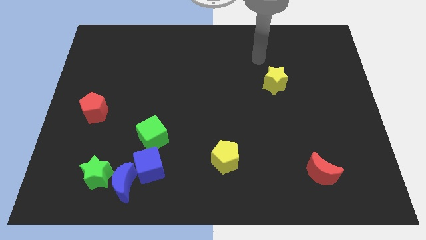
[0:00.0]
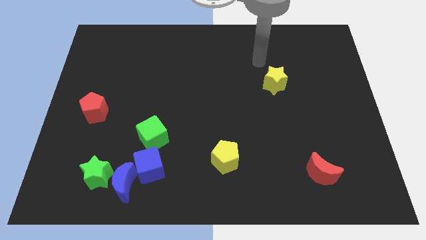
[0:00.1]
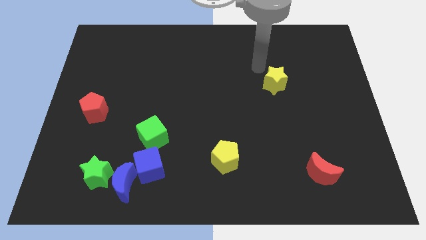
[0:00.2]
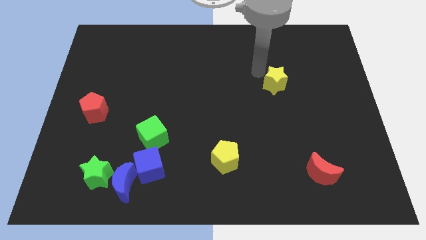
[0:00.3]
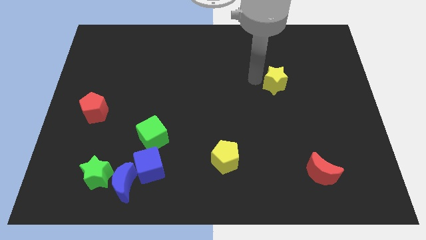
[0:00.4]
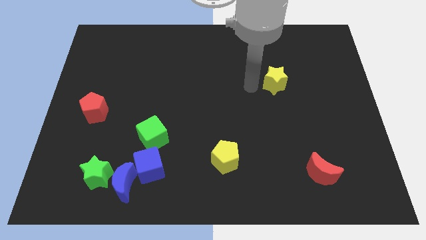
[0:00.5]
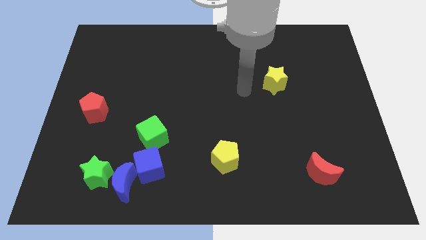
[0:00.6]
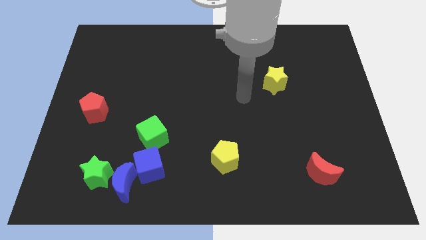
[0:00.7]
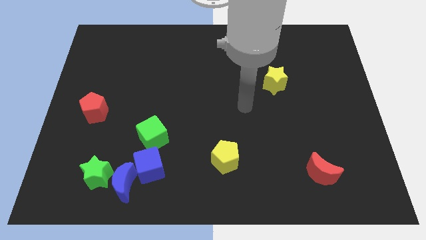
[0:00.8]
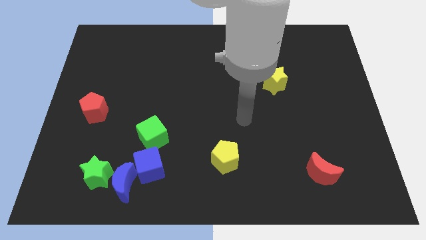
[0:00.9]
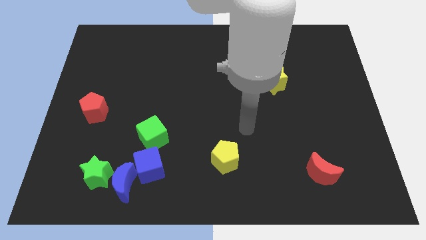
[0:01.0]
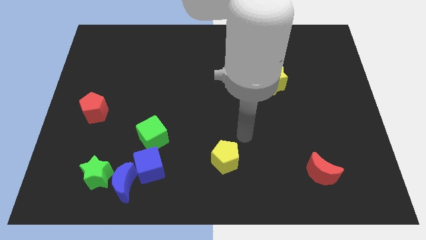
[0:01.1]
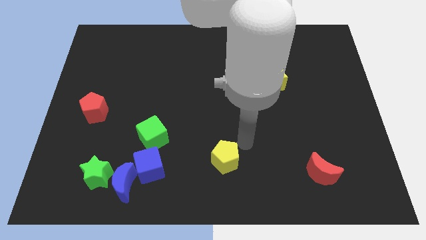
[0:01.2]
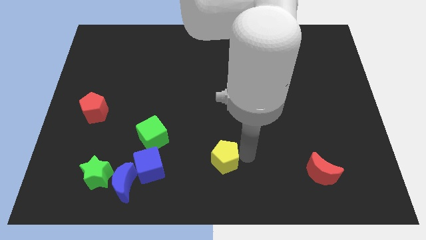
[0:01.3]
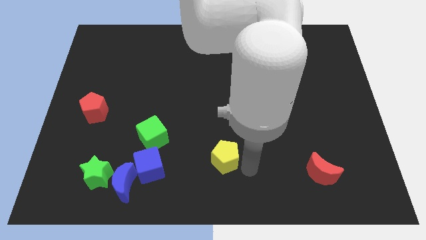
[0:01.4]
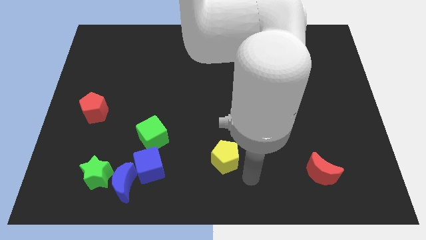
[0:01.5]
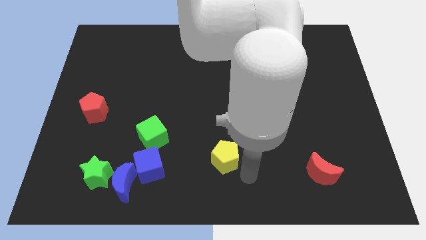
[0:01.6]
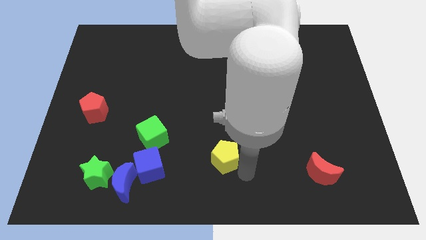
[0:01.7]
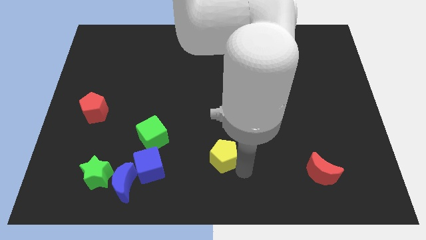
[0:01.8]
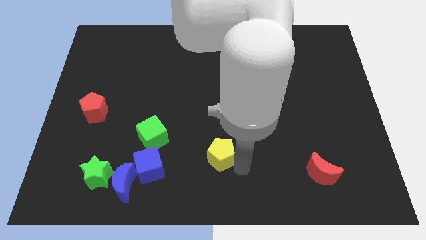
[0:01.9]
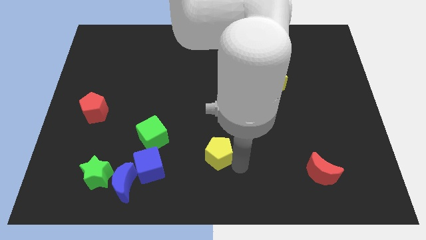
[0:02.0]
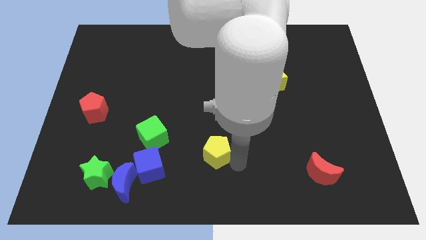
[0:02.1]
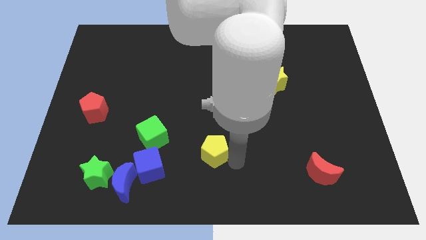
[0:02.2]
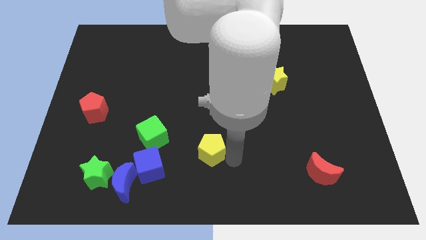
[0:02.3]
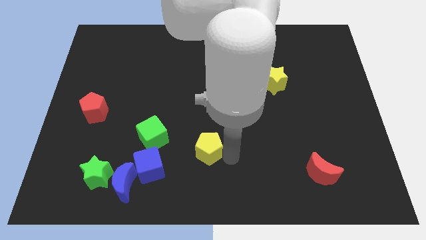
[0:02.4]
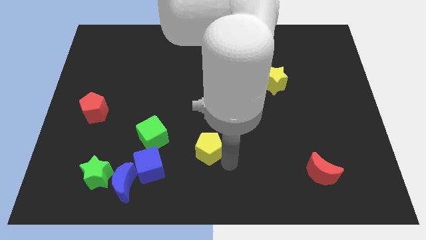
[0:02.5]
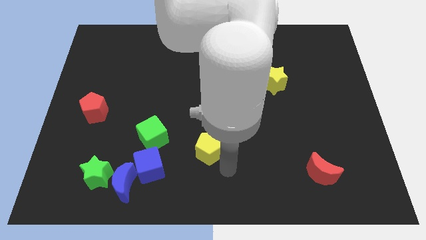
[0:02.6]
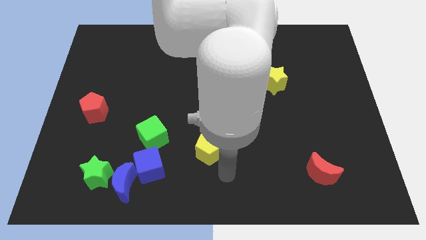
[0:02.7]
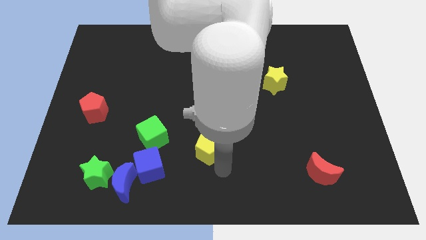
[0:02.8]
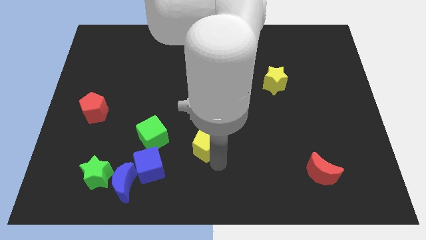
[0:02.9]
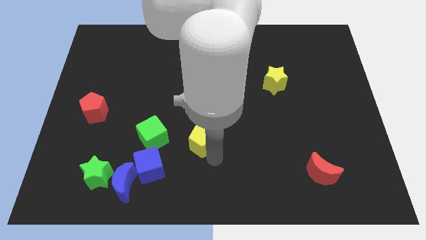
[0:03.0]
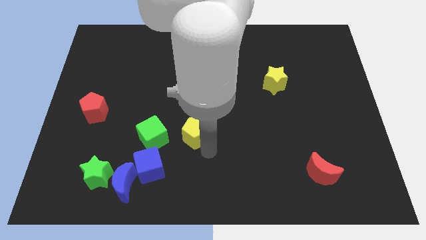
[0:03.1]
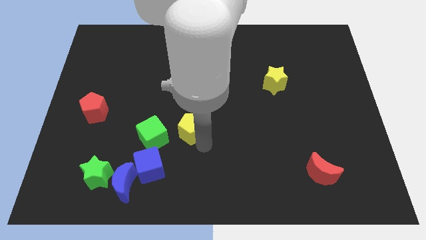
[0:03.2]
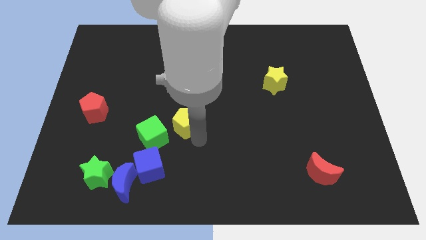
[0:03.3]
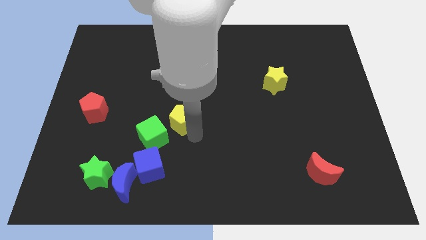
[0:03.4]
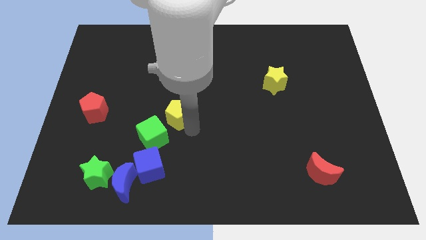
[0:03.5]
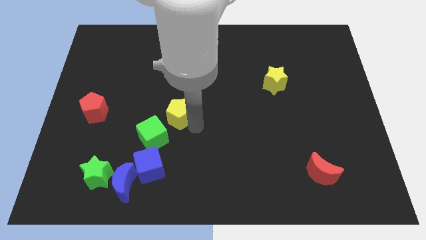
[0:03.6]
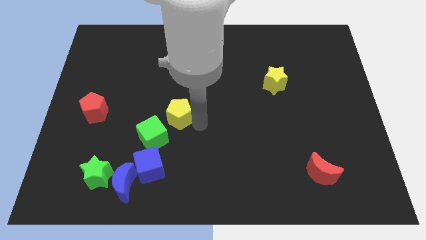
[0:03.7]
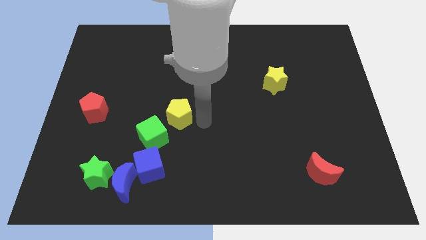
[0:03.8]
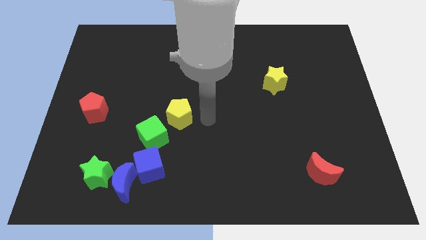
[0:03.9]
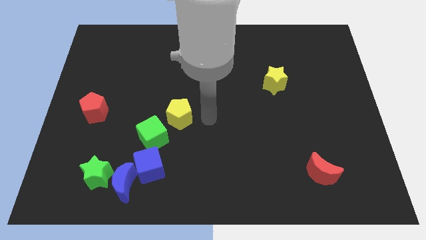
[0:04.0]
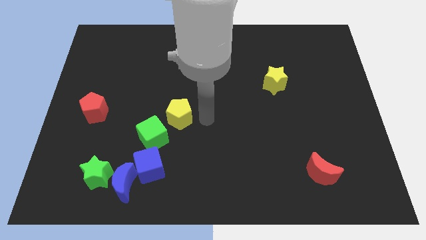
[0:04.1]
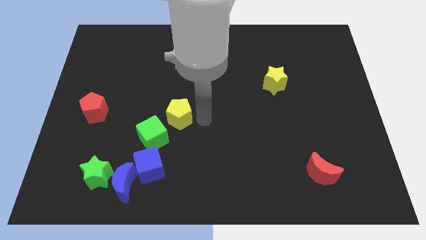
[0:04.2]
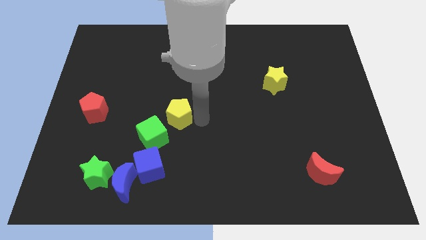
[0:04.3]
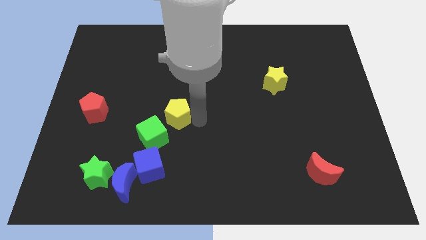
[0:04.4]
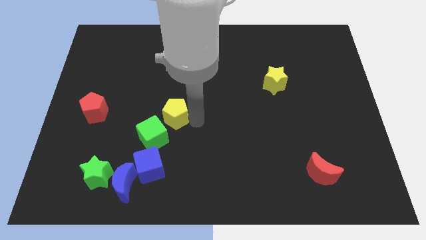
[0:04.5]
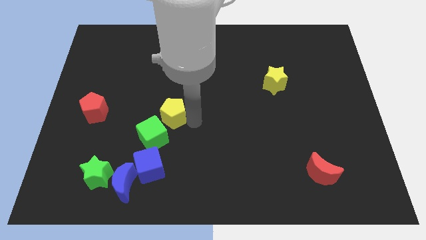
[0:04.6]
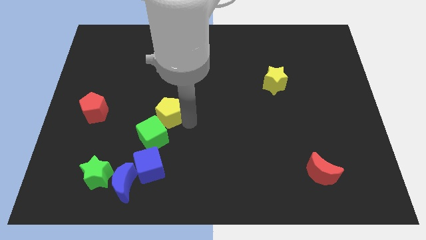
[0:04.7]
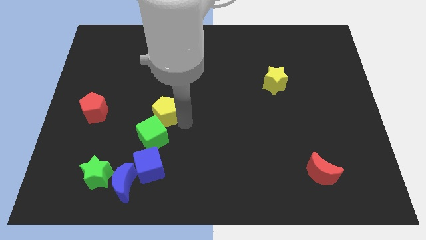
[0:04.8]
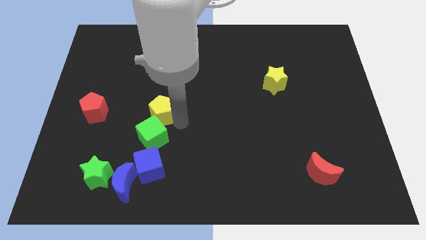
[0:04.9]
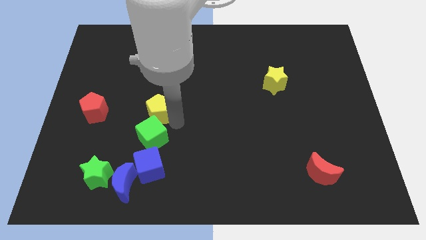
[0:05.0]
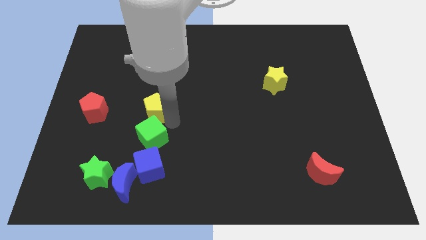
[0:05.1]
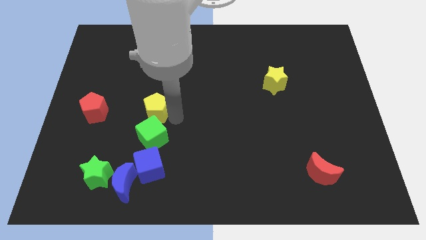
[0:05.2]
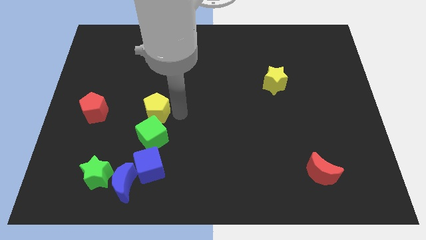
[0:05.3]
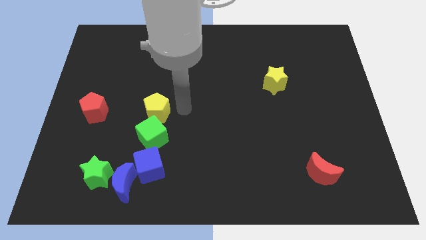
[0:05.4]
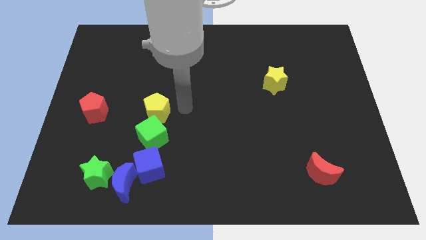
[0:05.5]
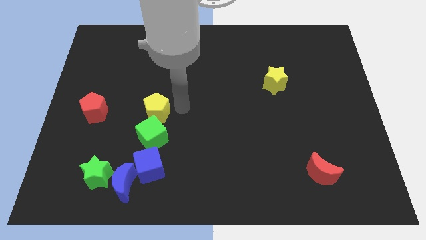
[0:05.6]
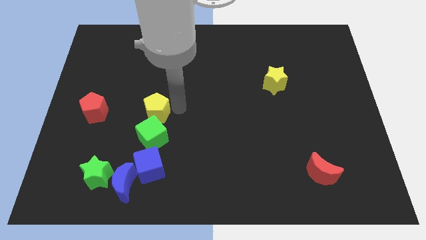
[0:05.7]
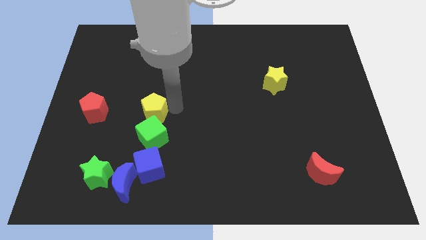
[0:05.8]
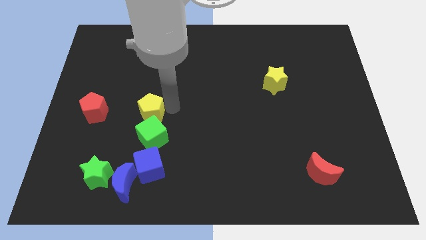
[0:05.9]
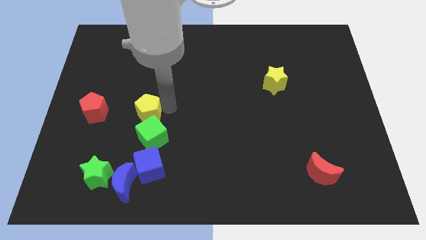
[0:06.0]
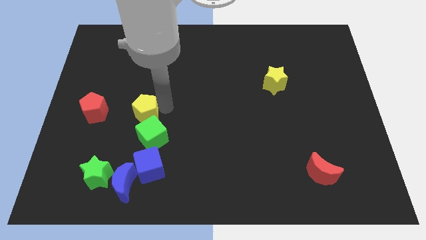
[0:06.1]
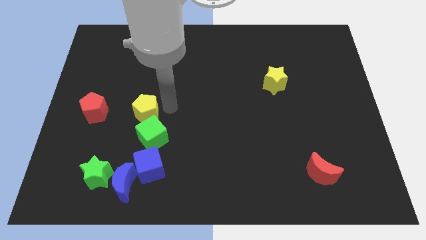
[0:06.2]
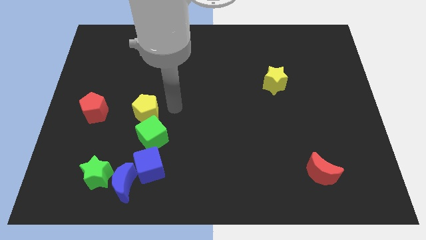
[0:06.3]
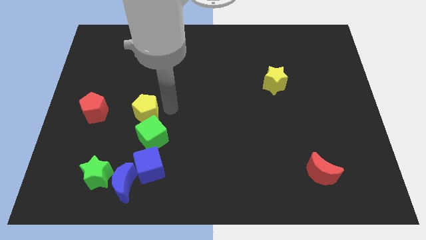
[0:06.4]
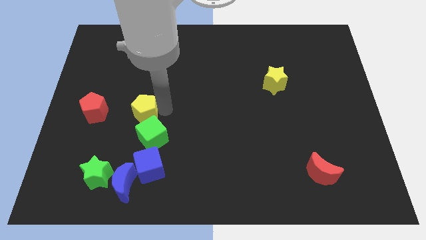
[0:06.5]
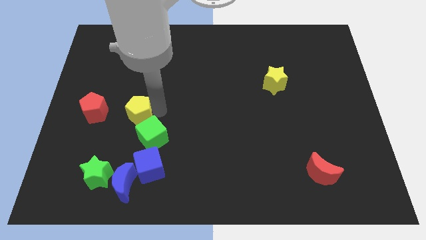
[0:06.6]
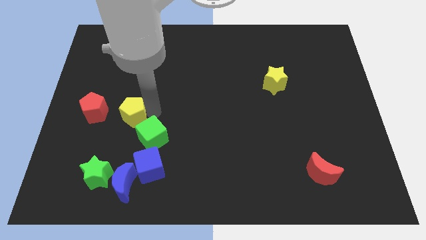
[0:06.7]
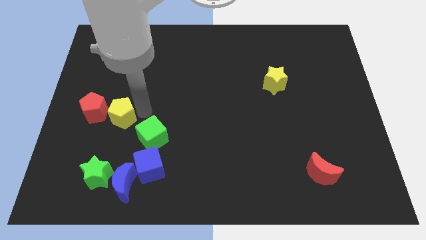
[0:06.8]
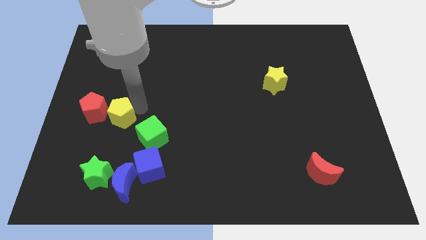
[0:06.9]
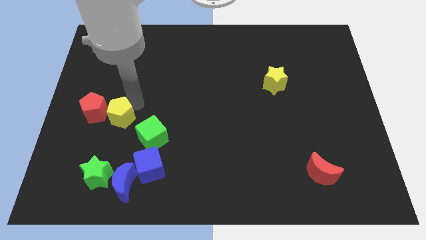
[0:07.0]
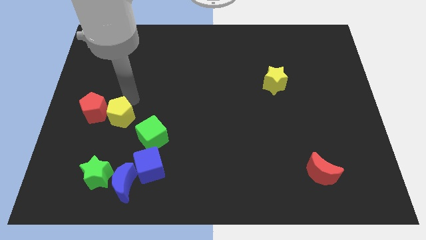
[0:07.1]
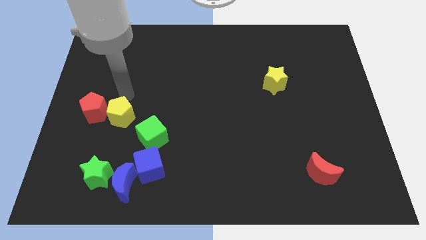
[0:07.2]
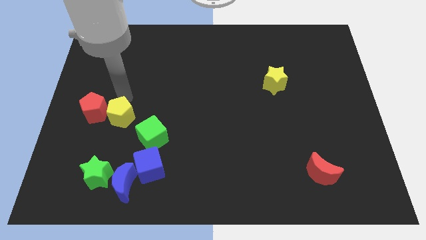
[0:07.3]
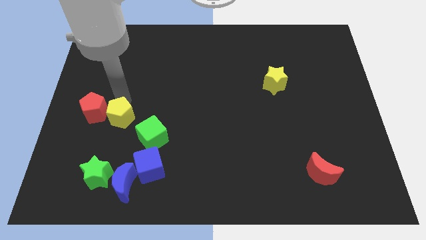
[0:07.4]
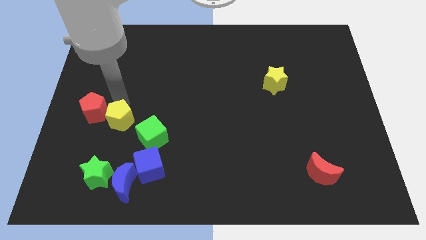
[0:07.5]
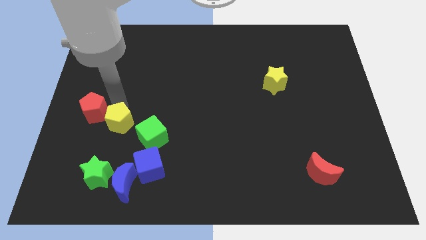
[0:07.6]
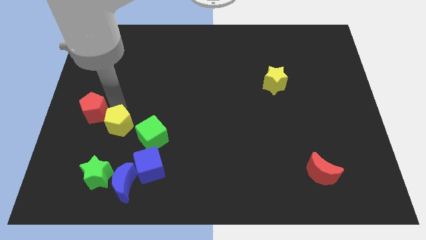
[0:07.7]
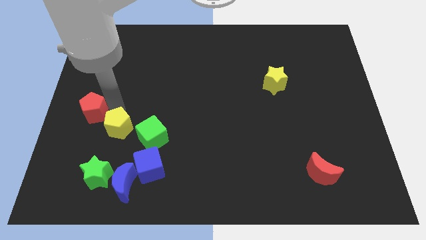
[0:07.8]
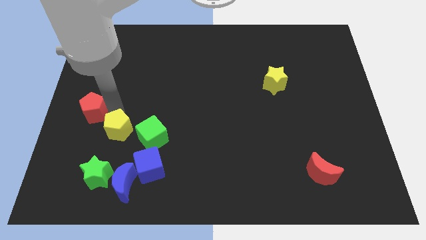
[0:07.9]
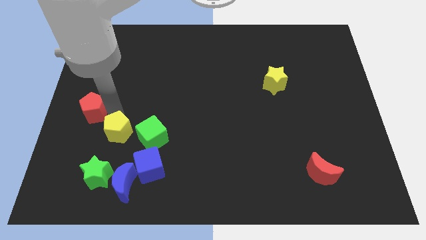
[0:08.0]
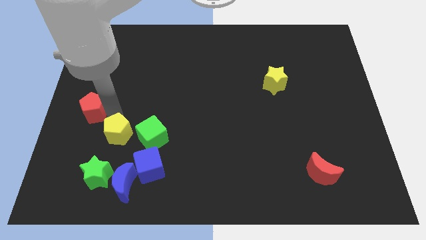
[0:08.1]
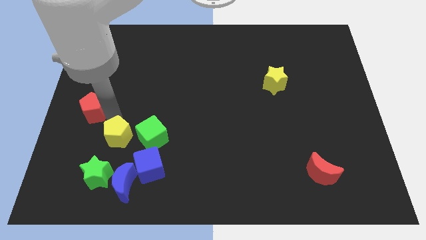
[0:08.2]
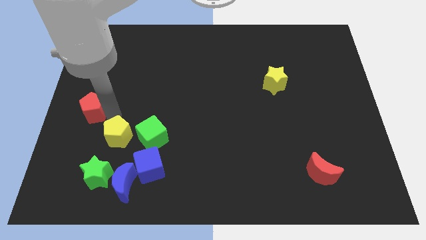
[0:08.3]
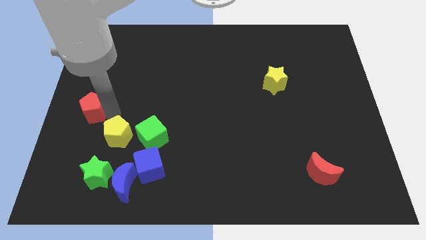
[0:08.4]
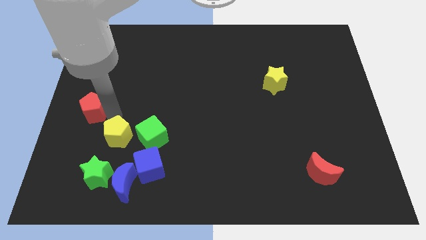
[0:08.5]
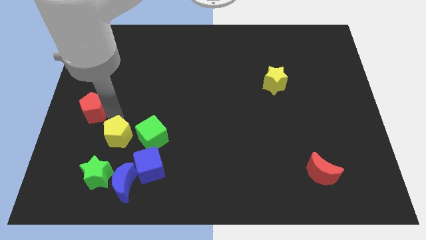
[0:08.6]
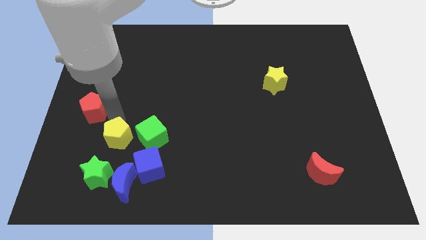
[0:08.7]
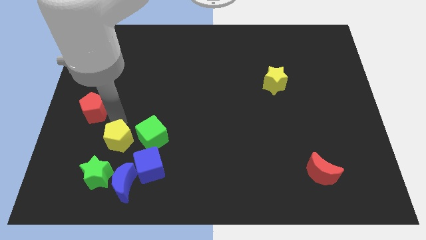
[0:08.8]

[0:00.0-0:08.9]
put the yellow pentagon to the bottom left of the green cube
